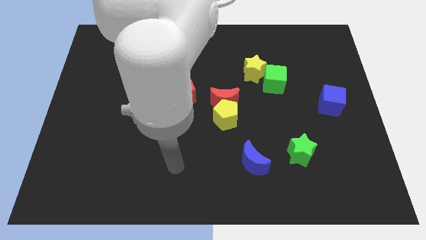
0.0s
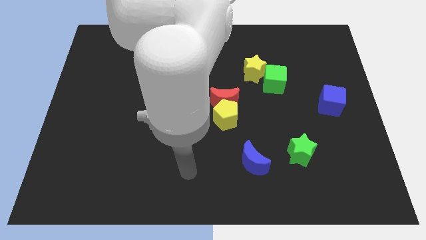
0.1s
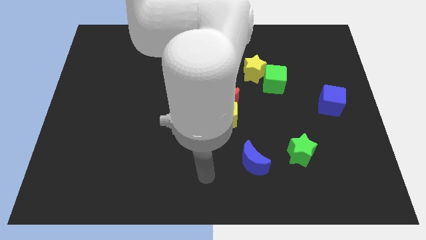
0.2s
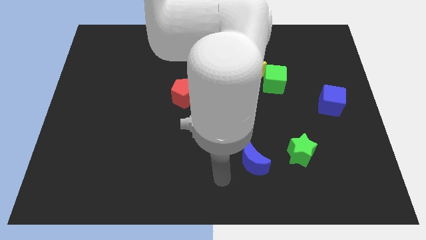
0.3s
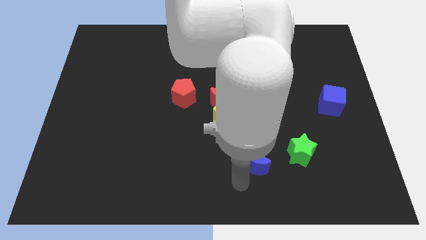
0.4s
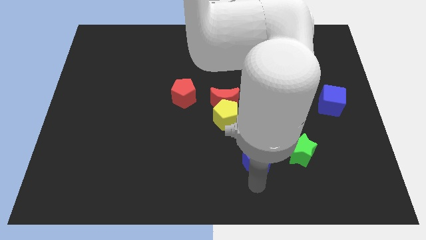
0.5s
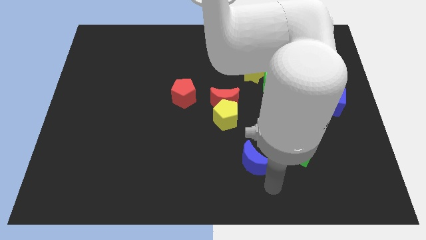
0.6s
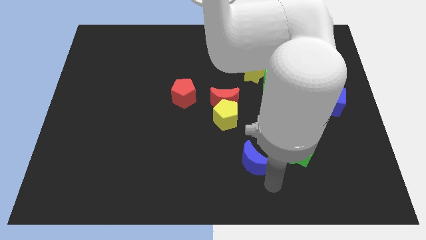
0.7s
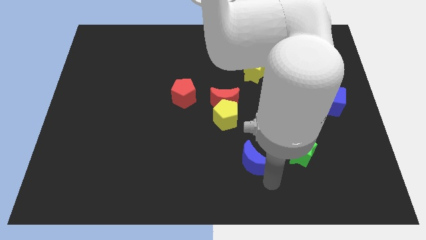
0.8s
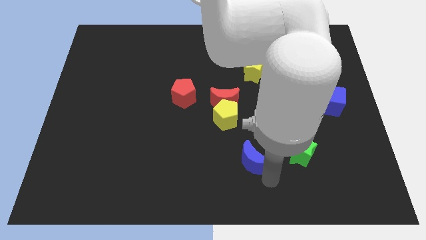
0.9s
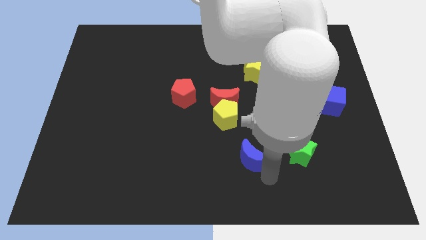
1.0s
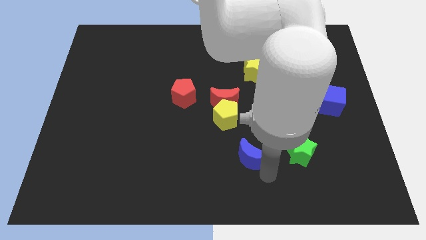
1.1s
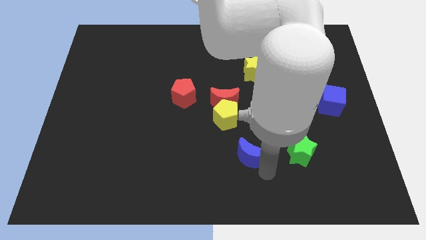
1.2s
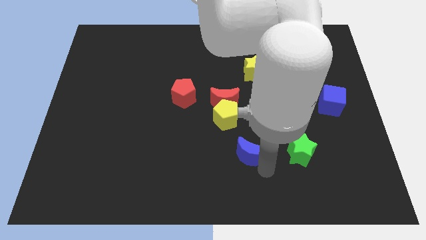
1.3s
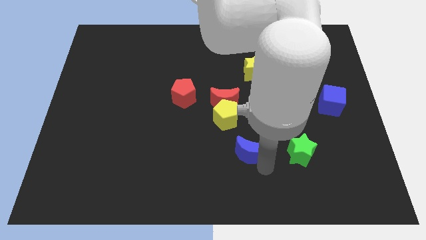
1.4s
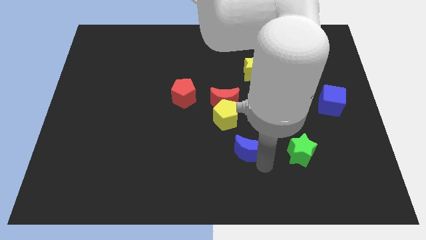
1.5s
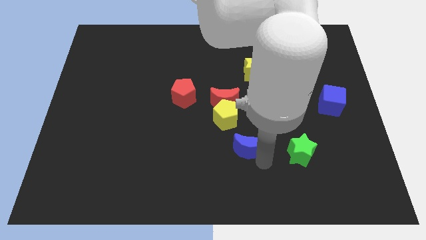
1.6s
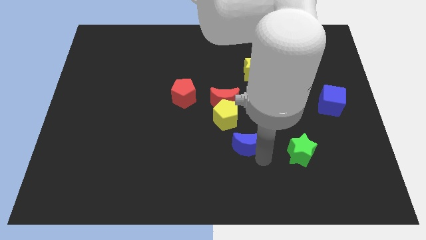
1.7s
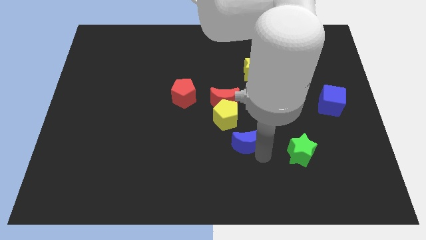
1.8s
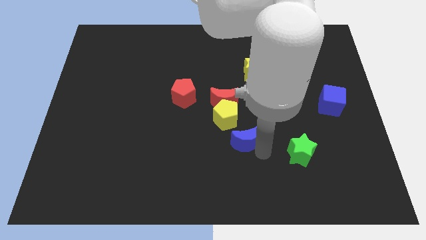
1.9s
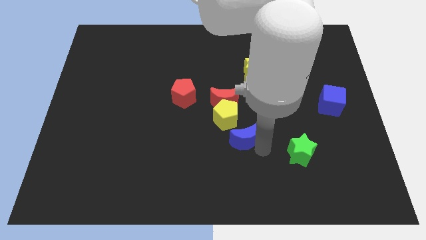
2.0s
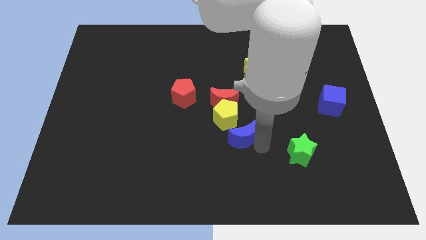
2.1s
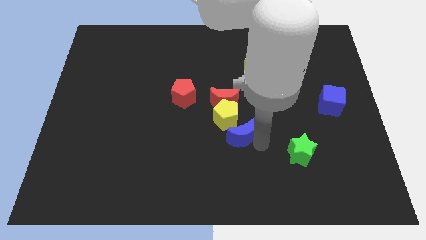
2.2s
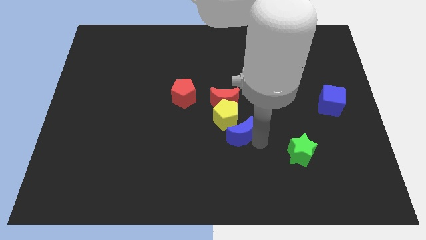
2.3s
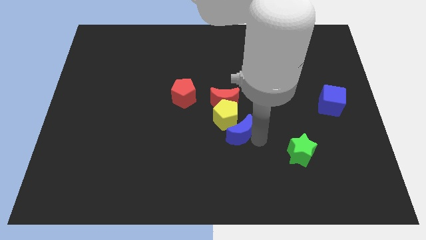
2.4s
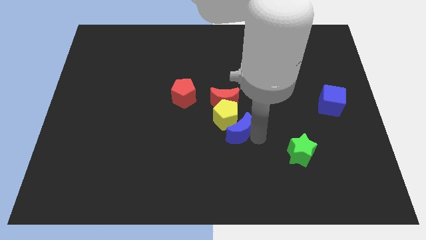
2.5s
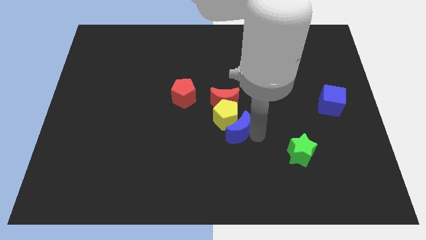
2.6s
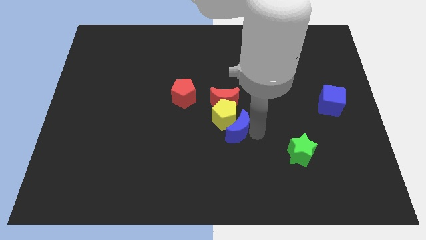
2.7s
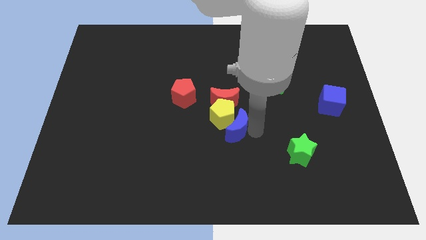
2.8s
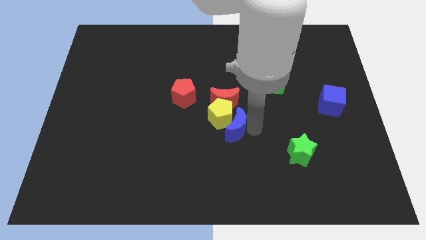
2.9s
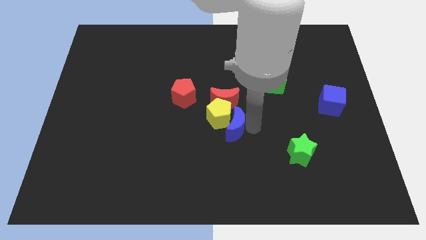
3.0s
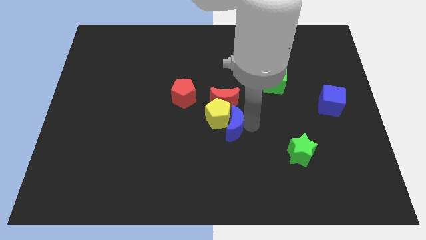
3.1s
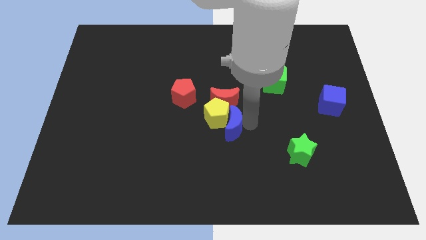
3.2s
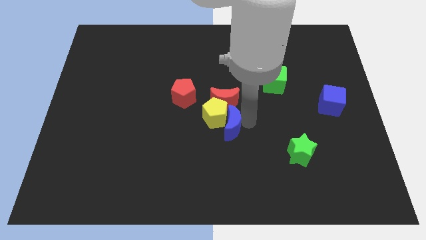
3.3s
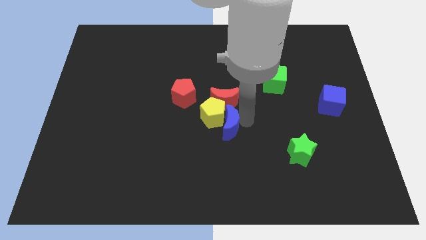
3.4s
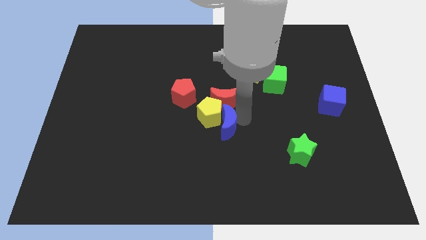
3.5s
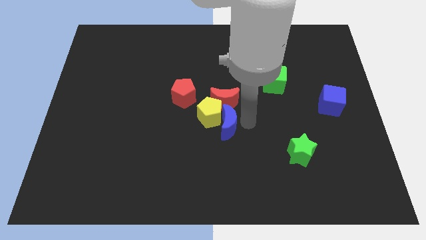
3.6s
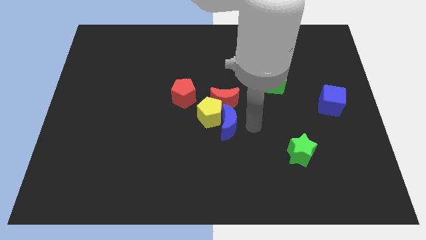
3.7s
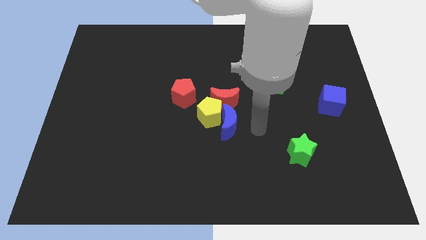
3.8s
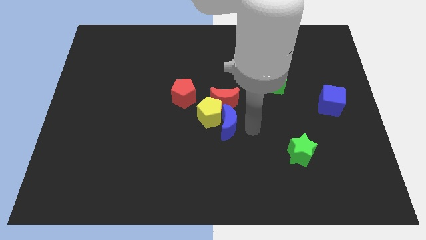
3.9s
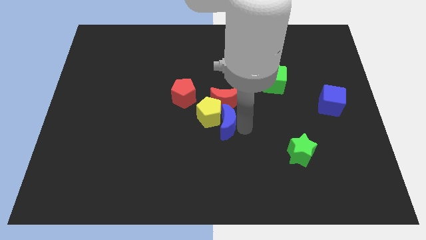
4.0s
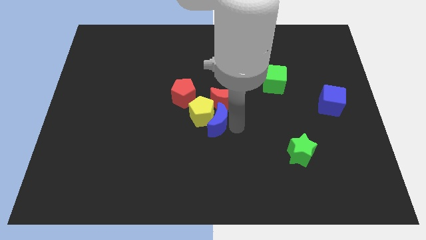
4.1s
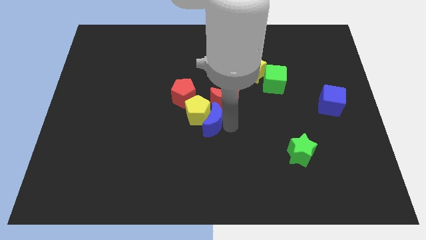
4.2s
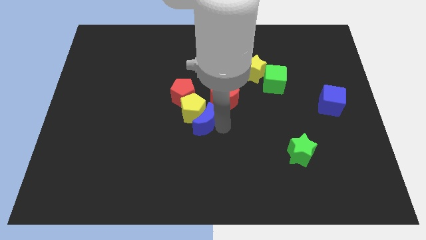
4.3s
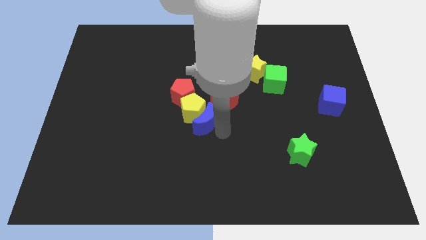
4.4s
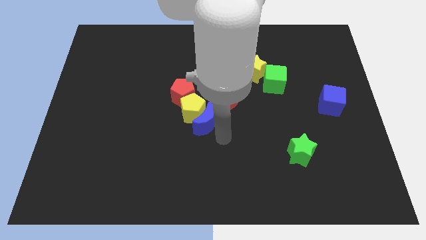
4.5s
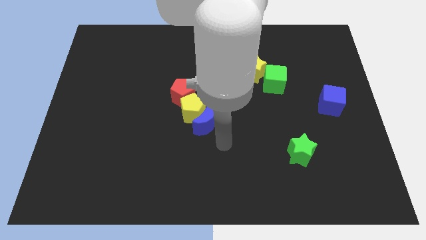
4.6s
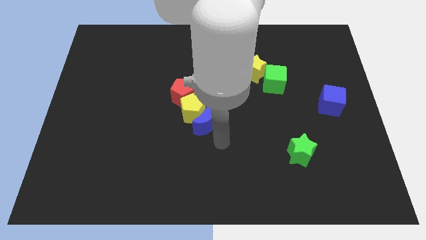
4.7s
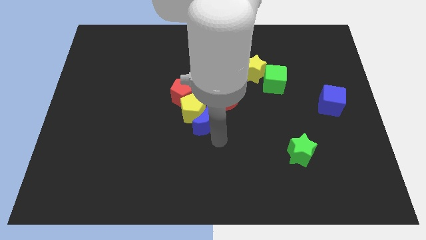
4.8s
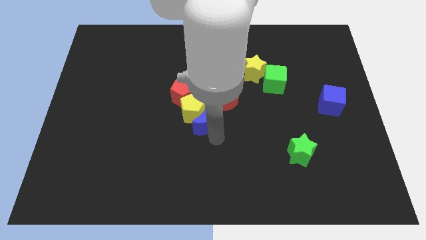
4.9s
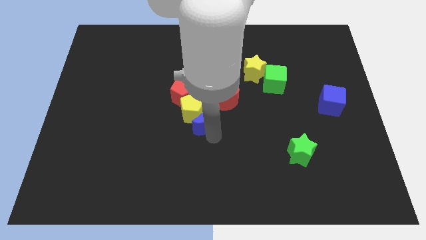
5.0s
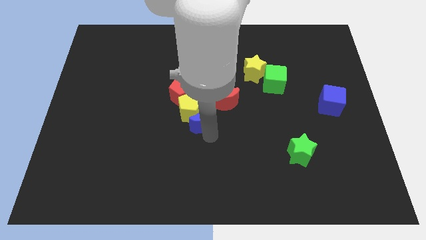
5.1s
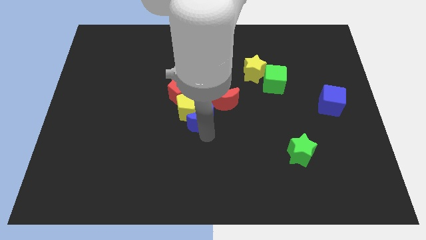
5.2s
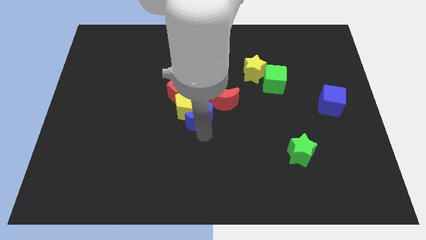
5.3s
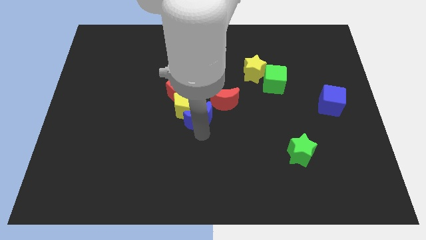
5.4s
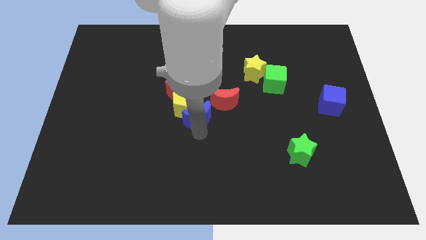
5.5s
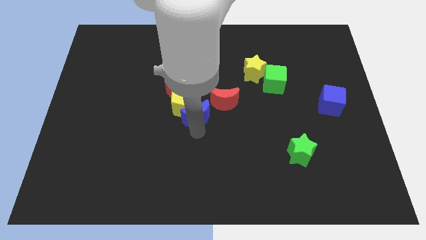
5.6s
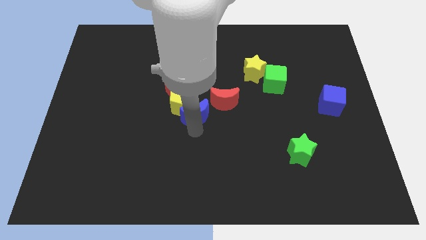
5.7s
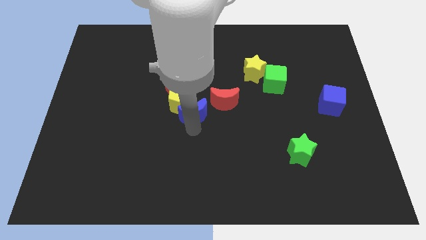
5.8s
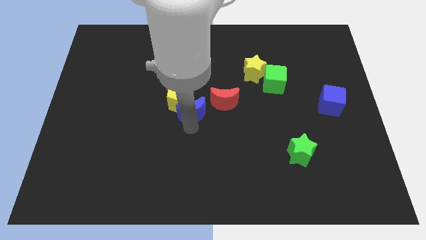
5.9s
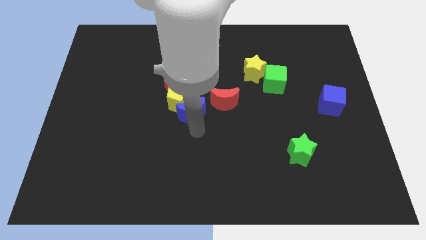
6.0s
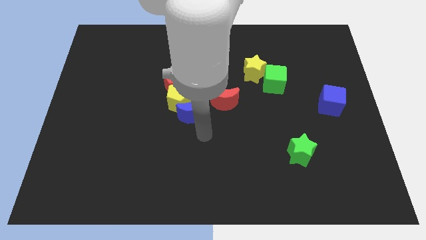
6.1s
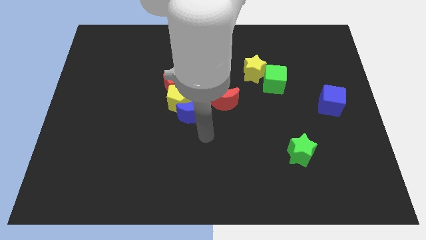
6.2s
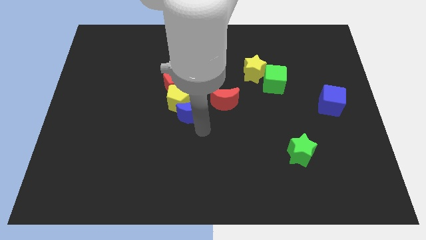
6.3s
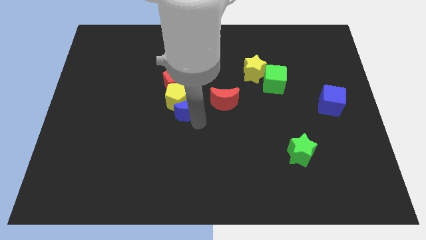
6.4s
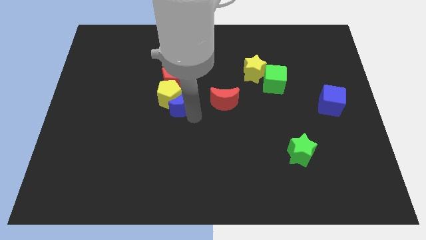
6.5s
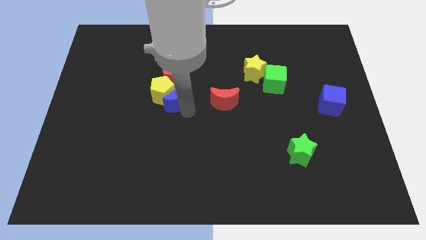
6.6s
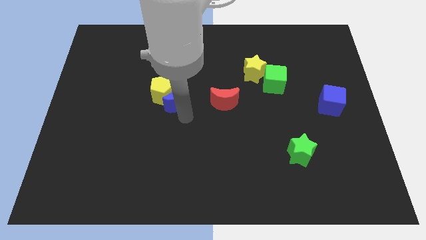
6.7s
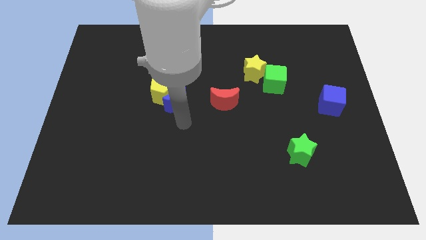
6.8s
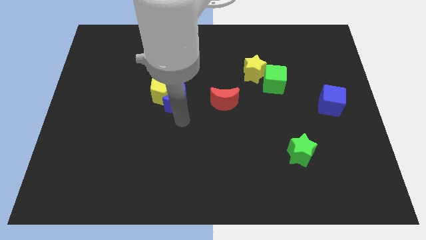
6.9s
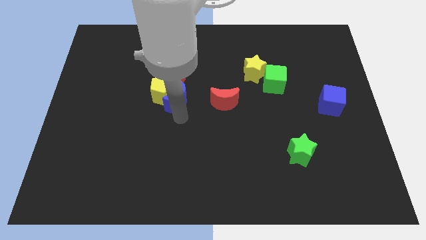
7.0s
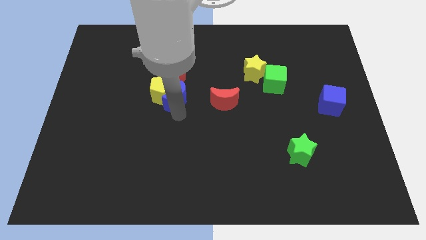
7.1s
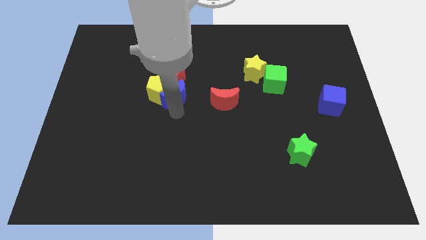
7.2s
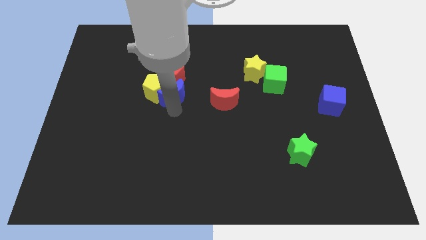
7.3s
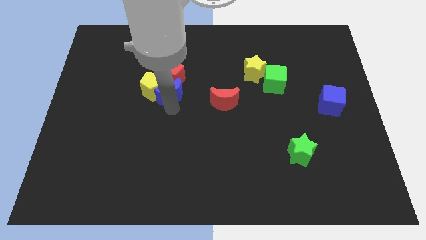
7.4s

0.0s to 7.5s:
move the blue moon next to the red pentagon
